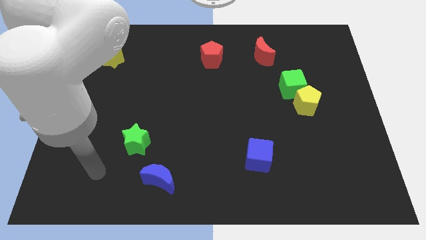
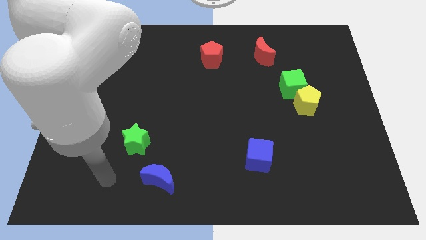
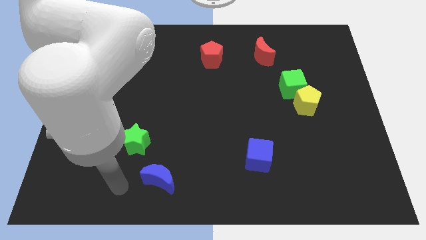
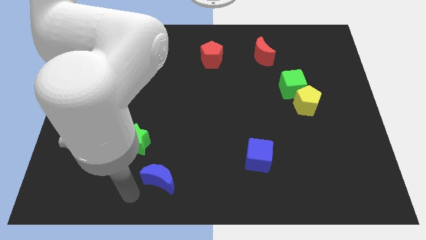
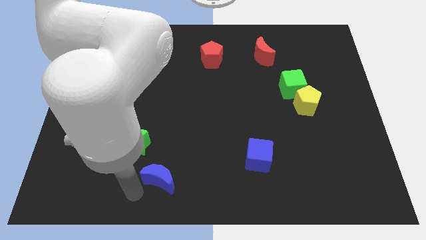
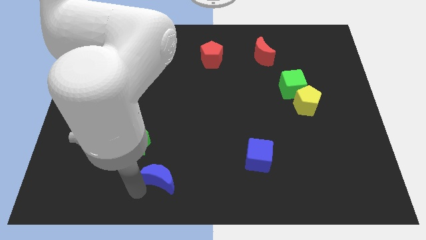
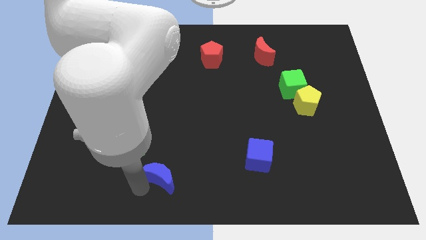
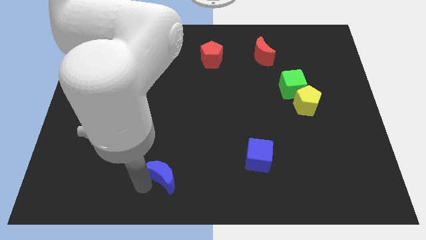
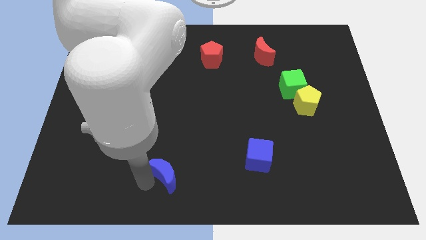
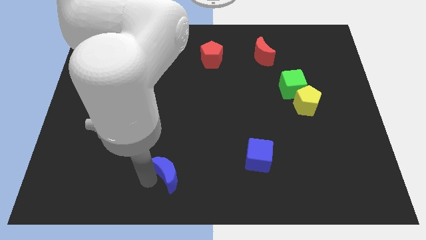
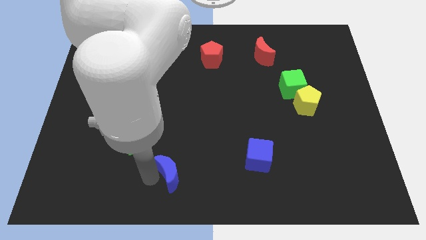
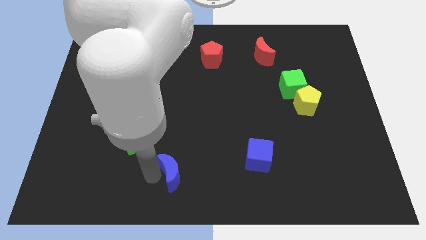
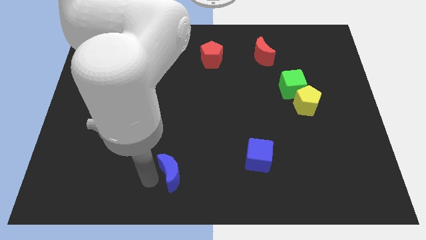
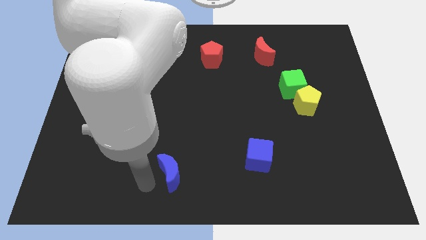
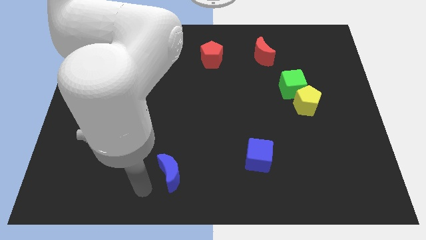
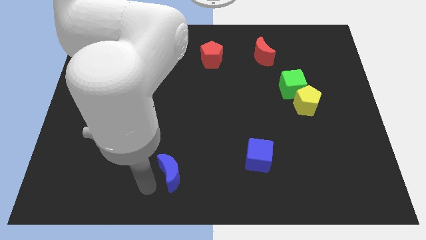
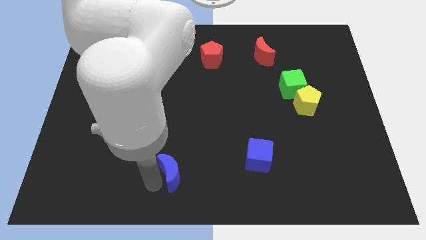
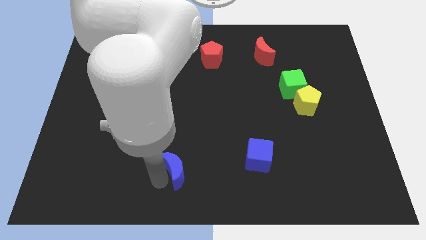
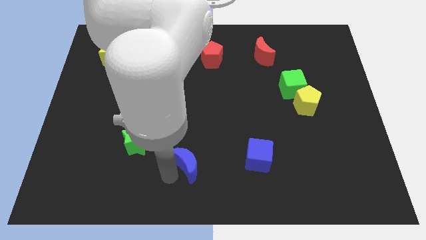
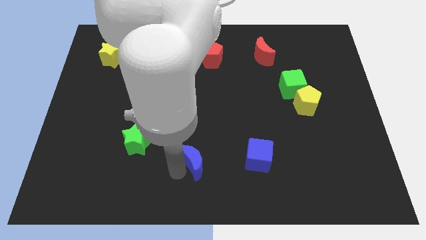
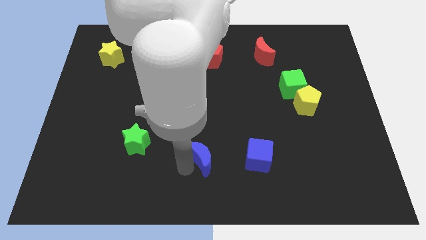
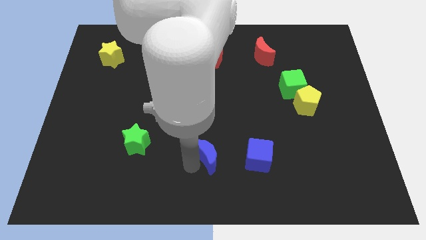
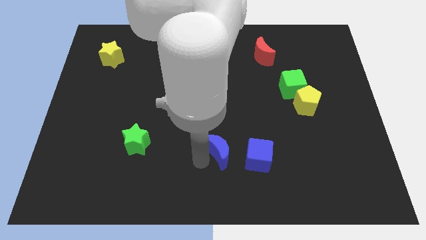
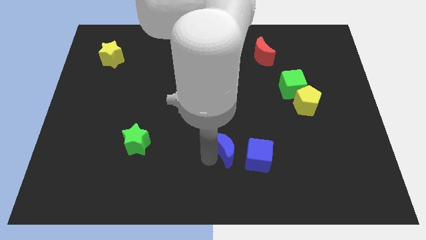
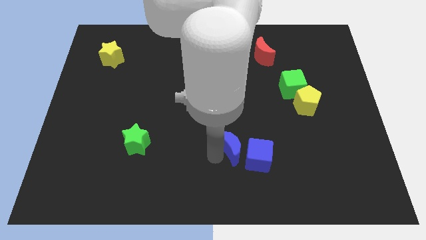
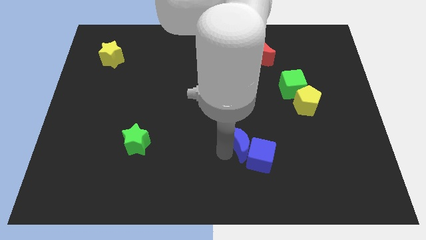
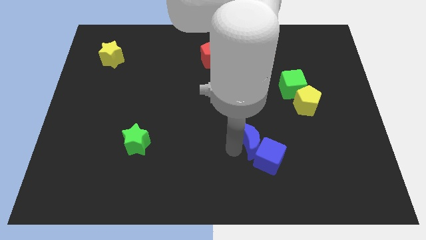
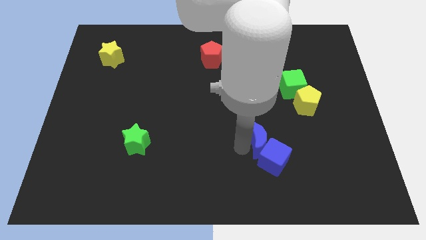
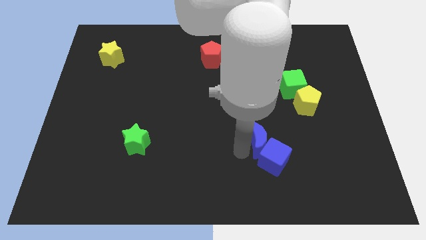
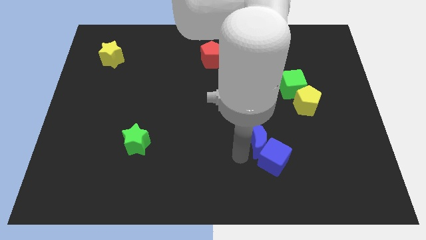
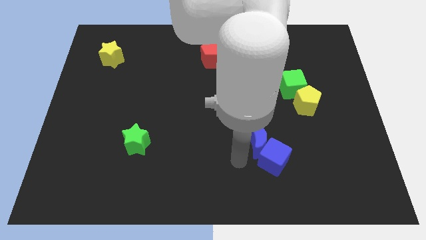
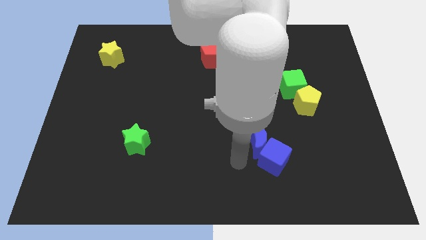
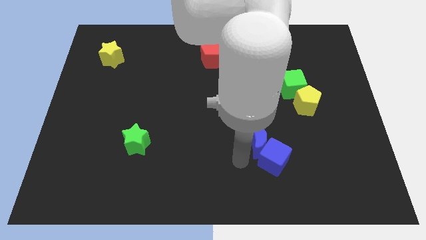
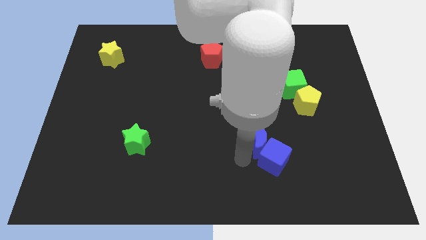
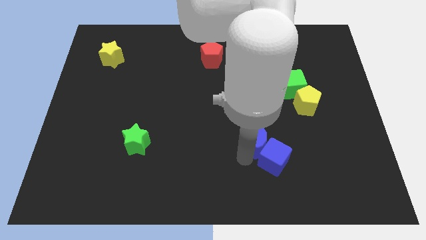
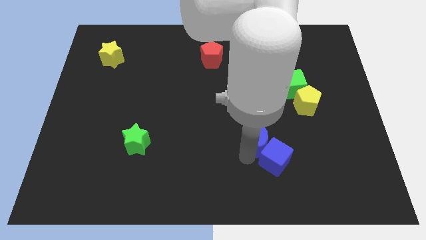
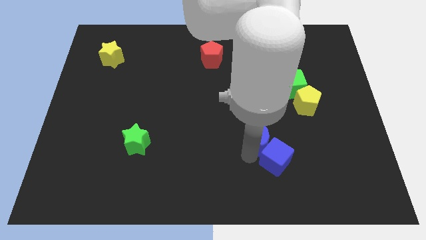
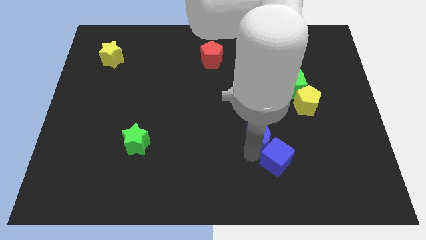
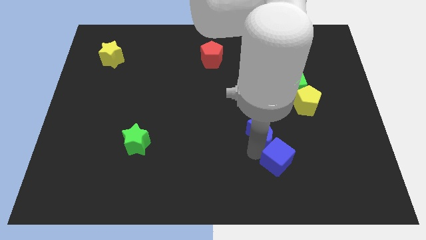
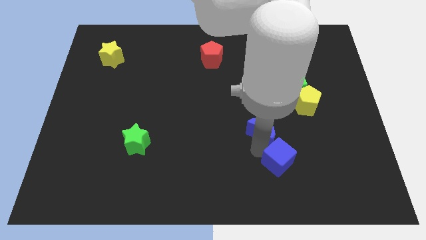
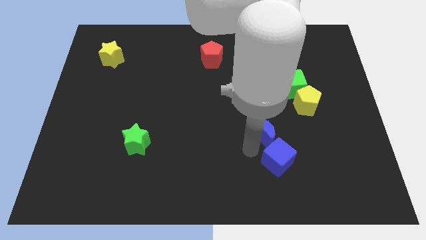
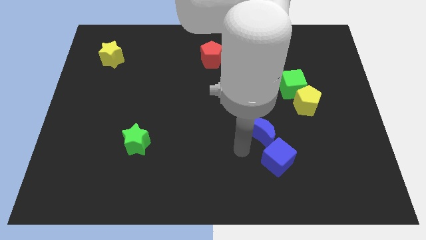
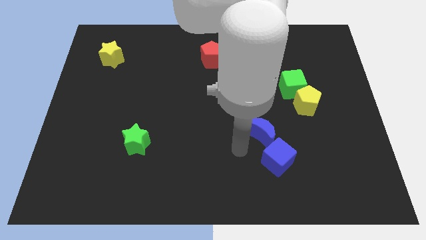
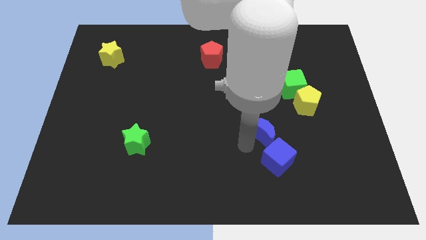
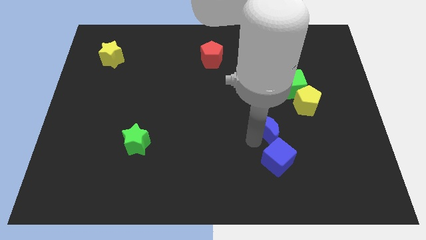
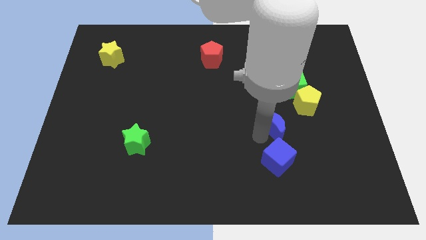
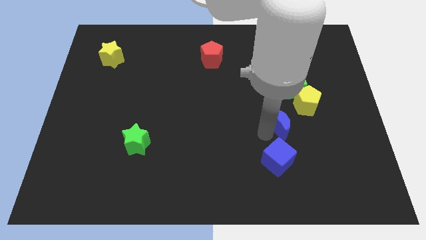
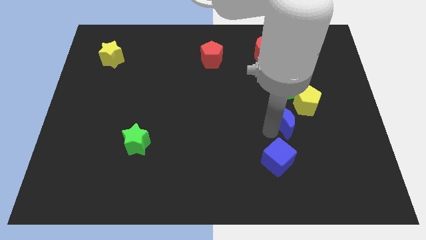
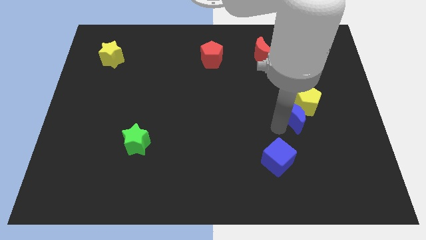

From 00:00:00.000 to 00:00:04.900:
slide the blue moon towards the yellow pentagon

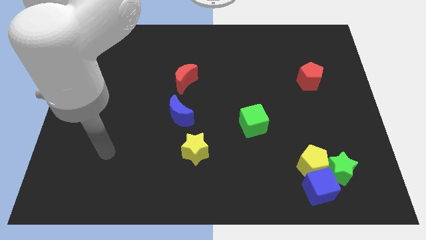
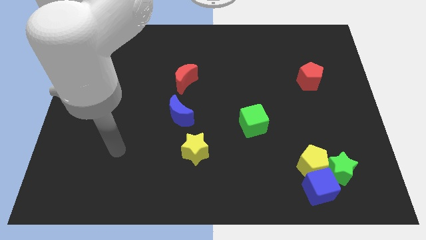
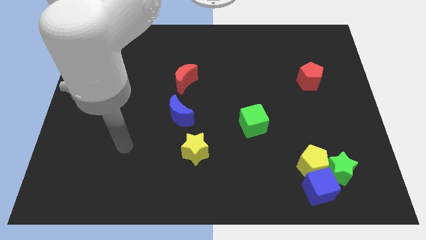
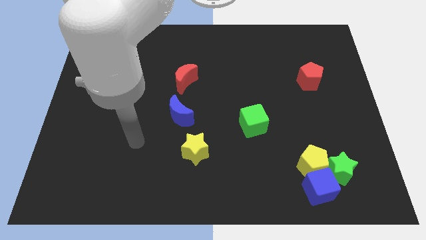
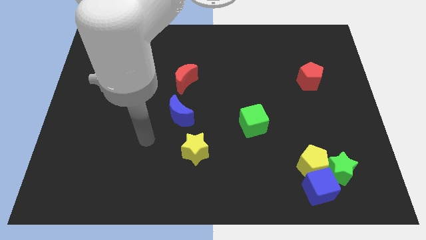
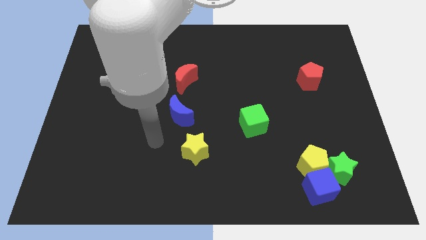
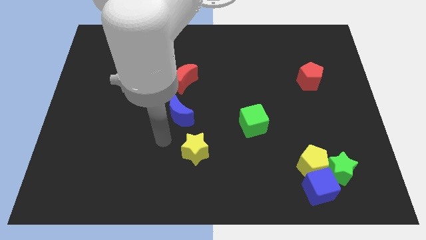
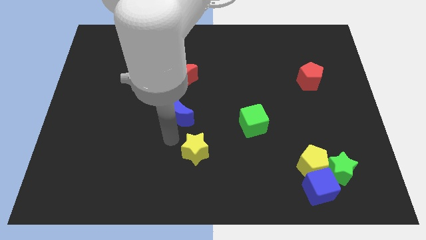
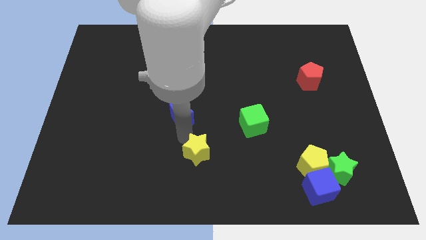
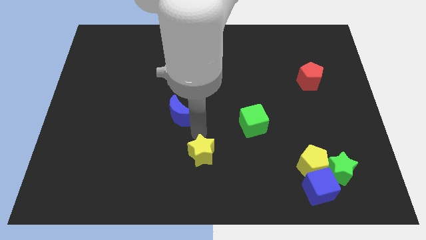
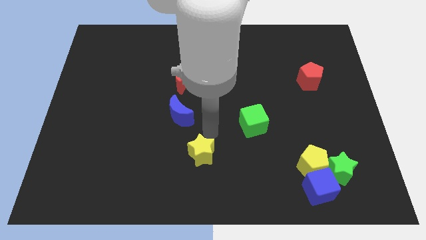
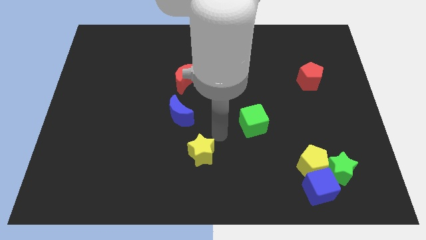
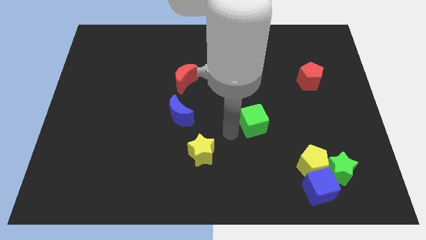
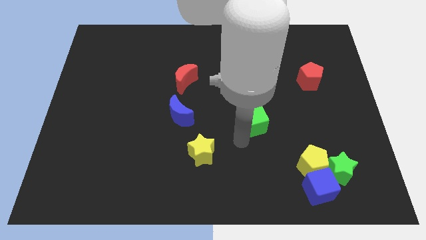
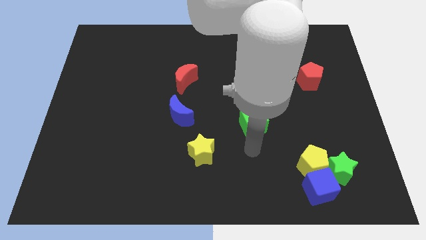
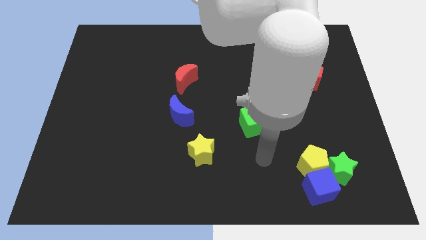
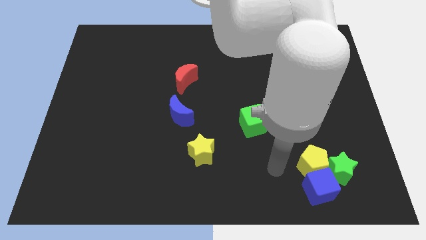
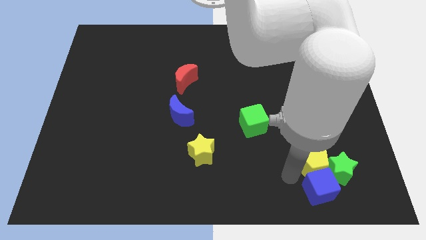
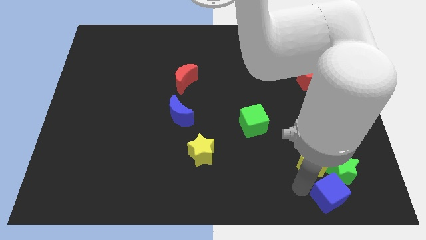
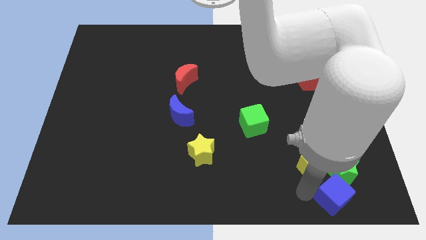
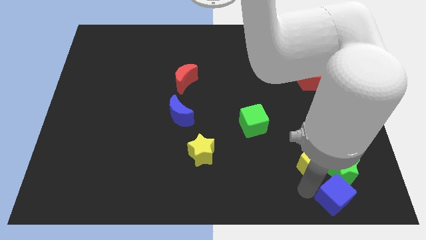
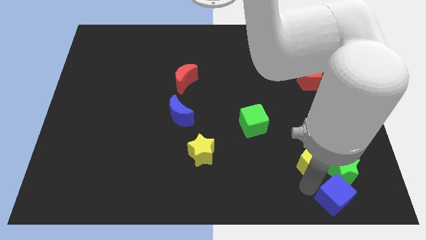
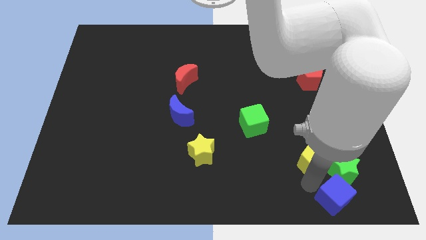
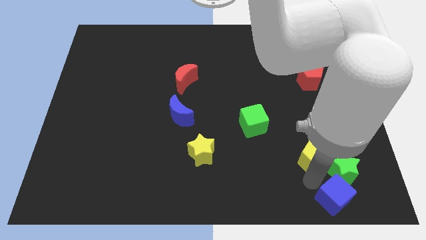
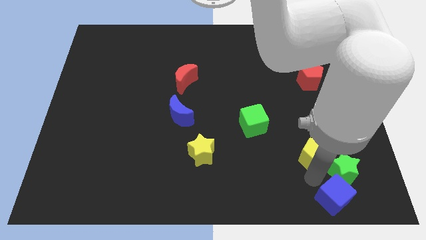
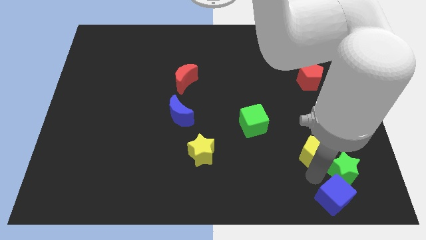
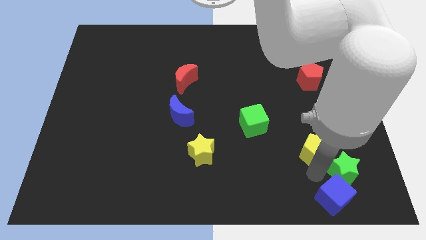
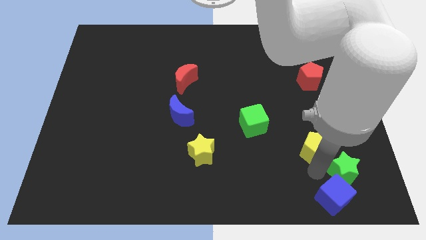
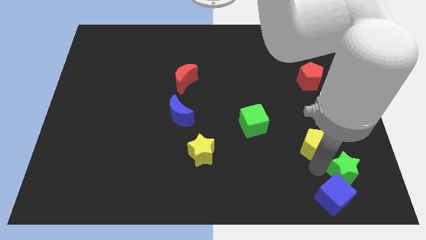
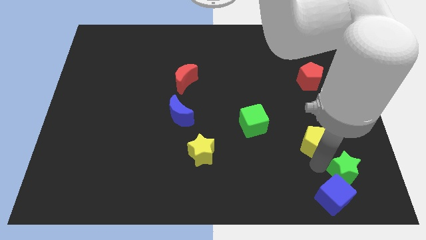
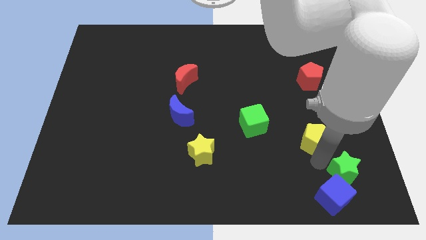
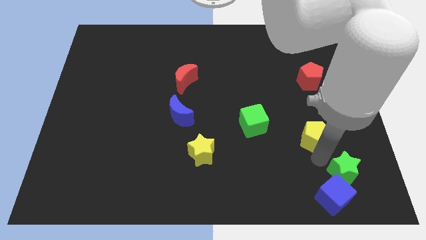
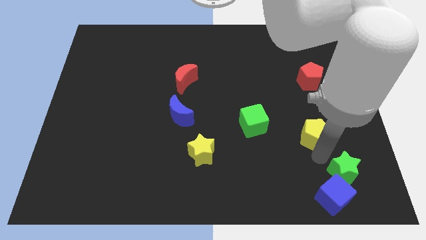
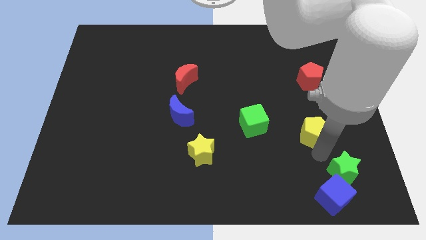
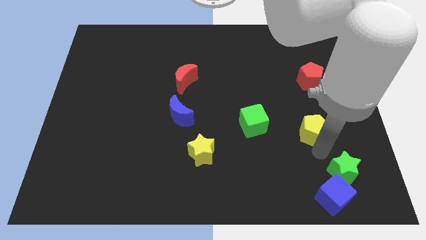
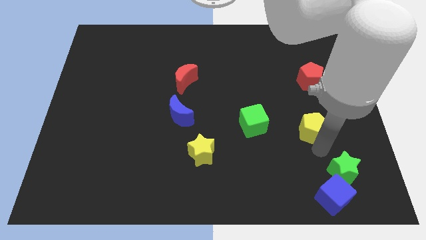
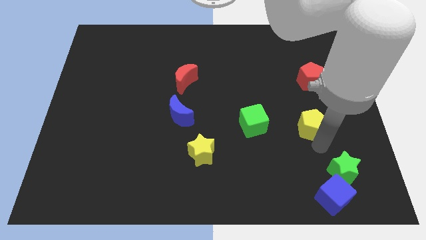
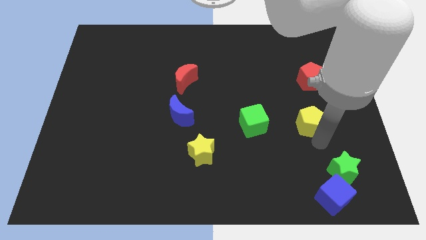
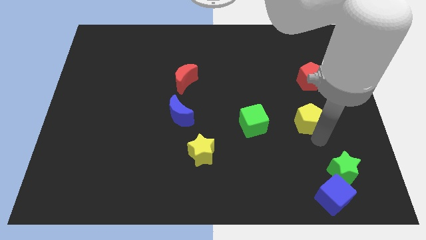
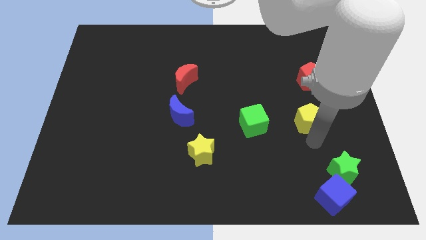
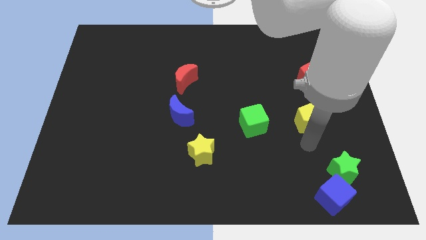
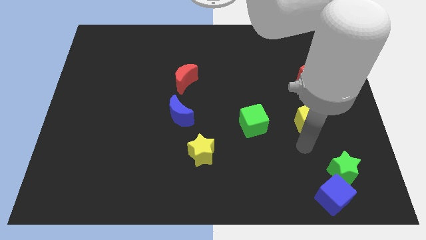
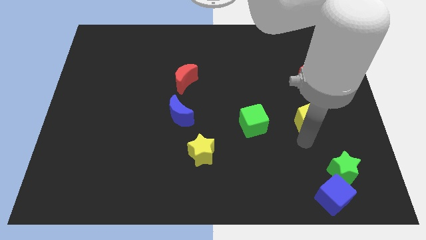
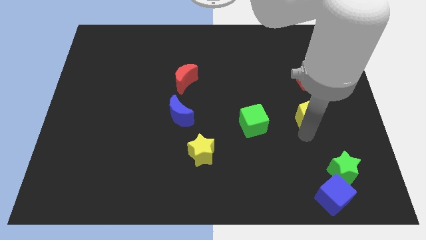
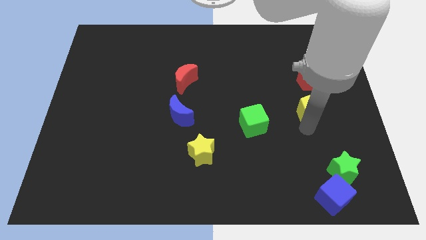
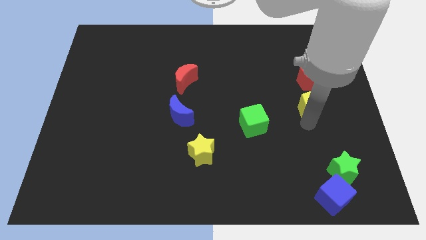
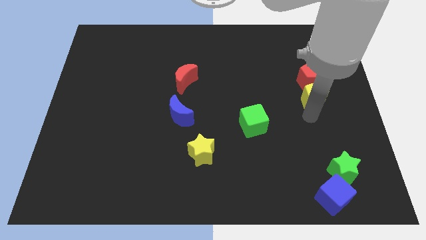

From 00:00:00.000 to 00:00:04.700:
push the yellow pentagon next to the red pentagon
